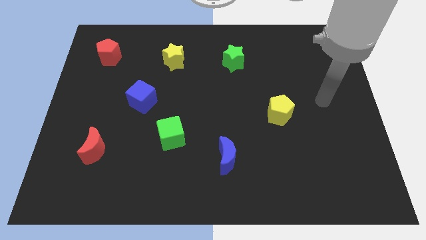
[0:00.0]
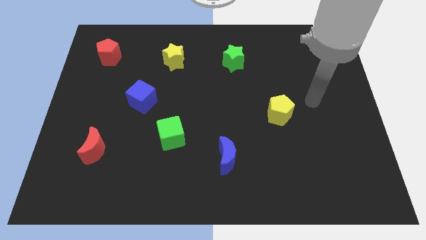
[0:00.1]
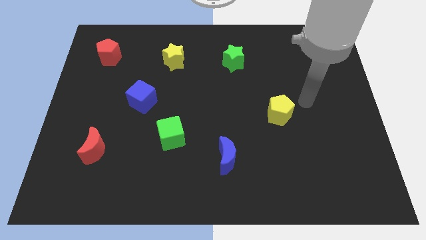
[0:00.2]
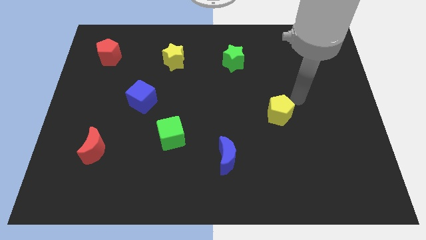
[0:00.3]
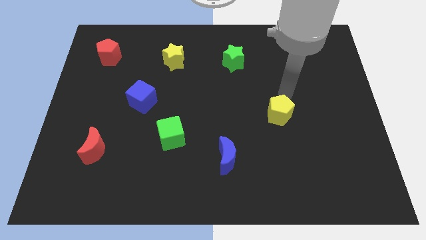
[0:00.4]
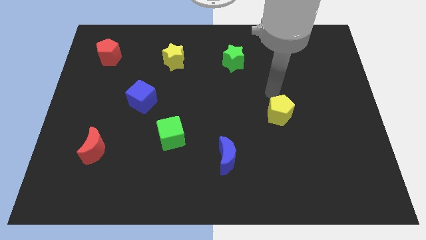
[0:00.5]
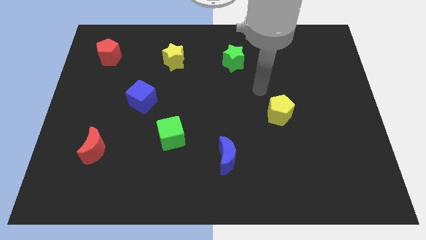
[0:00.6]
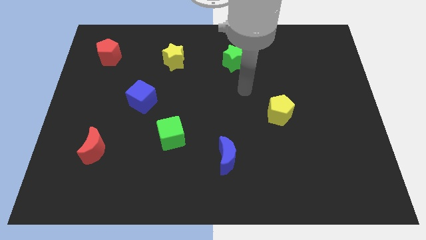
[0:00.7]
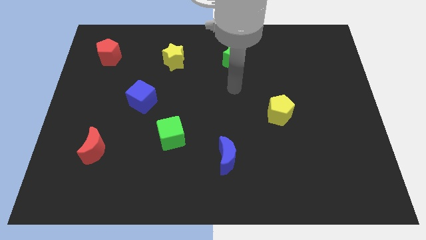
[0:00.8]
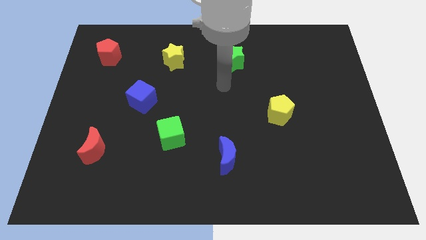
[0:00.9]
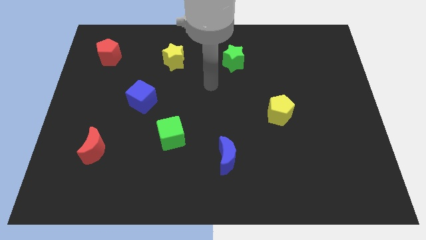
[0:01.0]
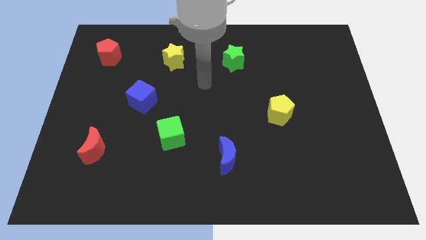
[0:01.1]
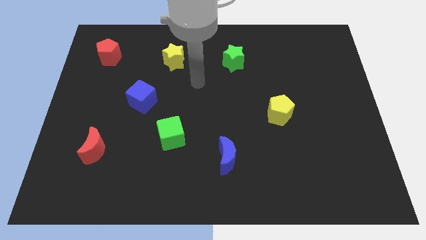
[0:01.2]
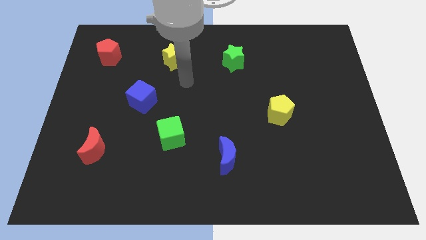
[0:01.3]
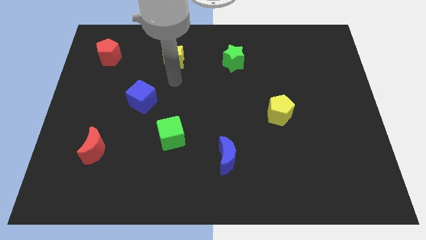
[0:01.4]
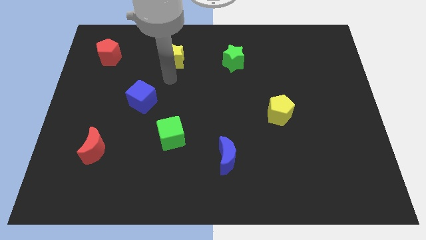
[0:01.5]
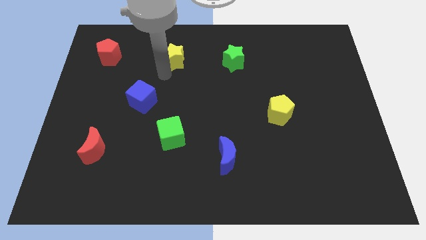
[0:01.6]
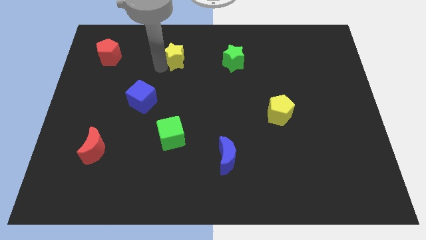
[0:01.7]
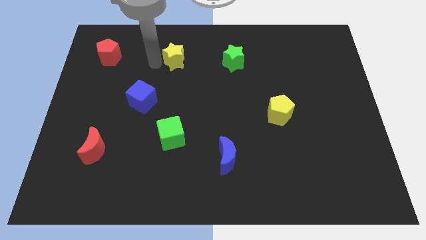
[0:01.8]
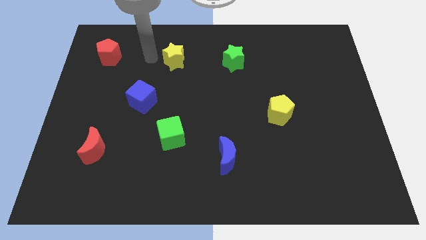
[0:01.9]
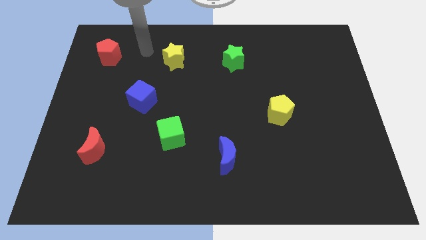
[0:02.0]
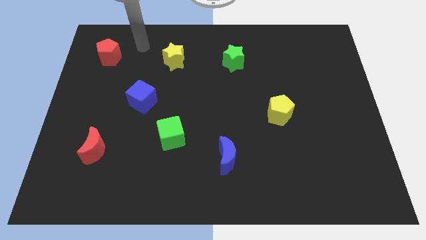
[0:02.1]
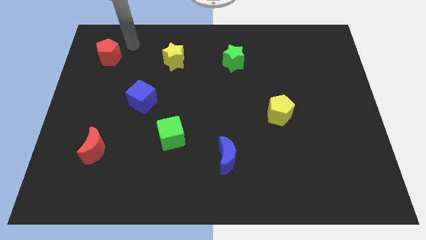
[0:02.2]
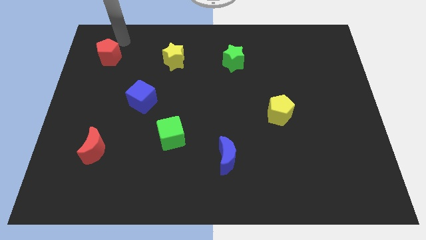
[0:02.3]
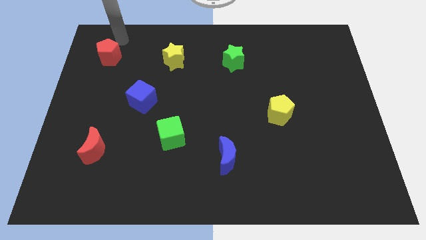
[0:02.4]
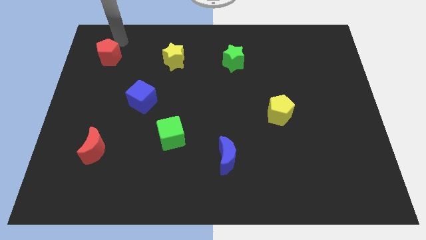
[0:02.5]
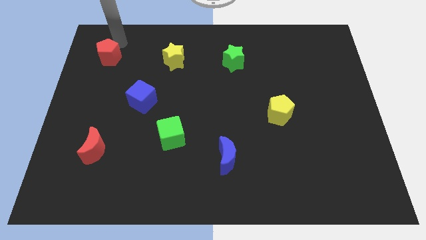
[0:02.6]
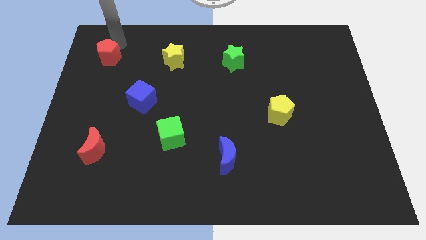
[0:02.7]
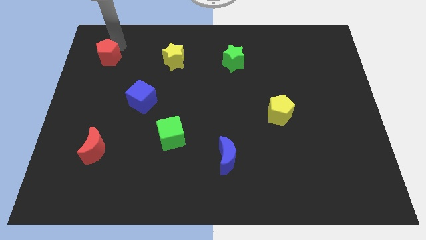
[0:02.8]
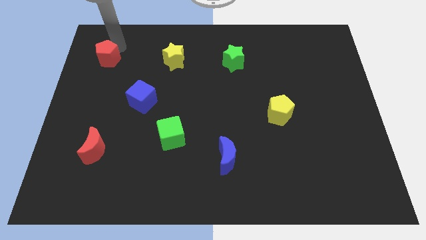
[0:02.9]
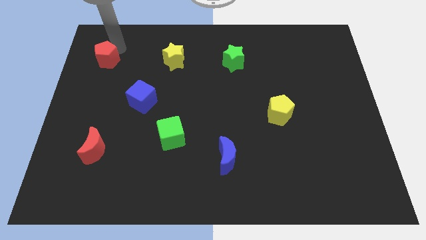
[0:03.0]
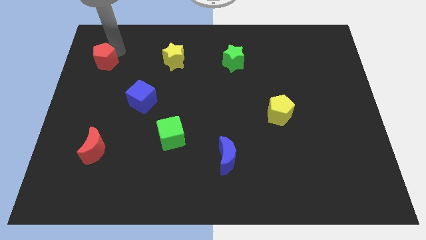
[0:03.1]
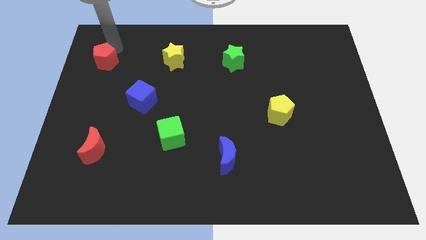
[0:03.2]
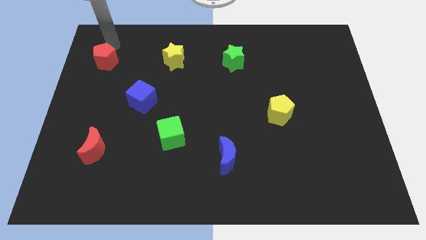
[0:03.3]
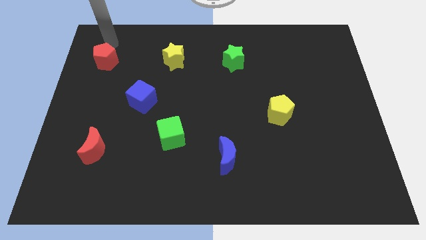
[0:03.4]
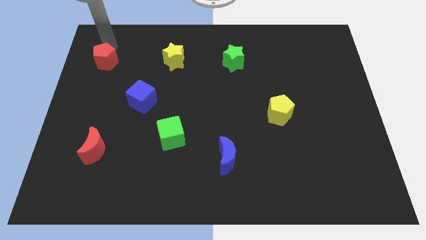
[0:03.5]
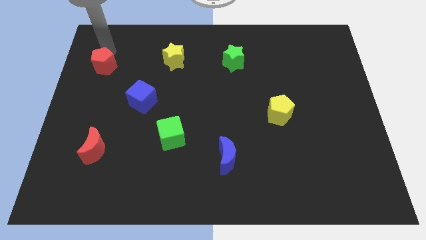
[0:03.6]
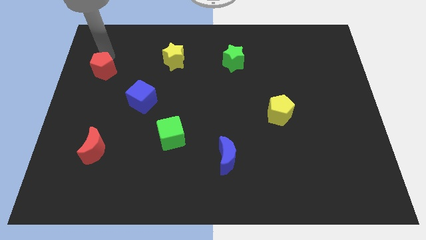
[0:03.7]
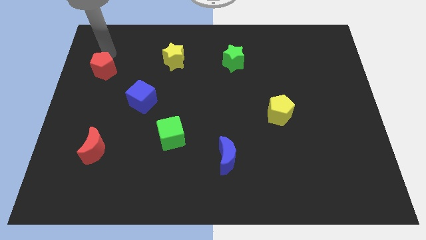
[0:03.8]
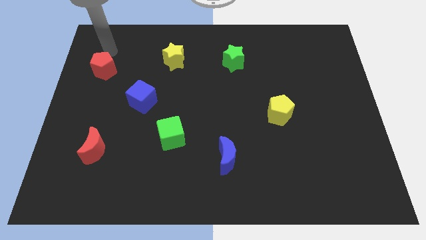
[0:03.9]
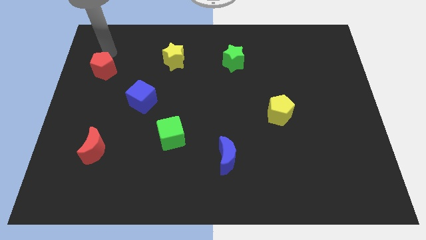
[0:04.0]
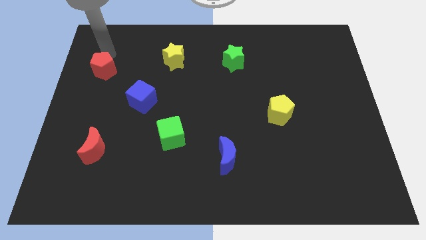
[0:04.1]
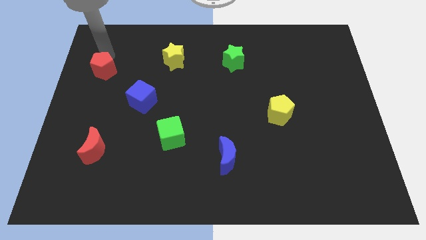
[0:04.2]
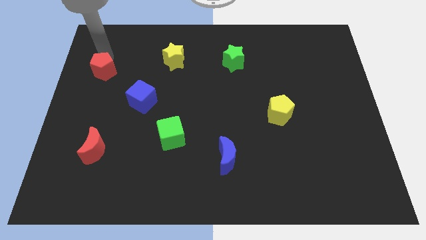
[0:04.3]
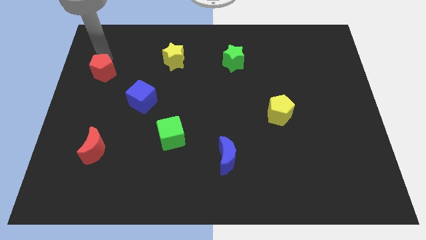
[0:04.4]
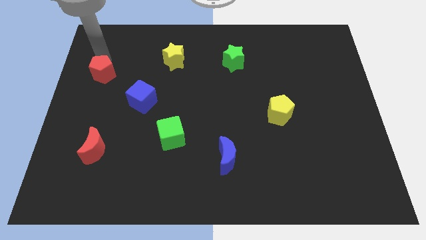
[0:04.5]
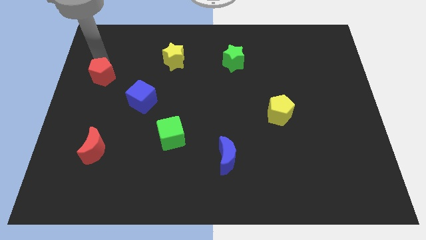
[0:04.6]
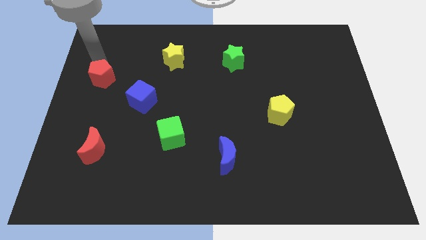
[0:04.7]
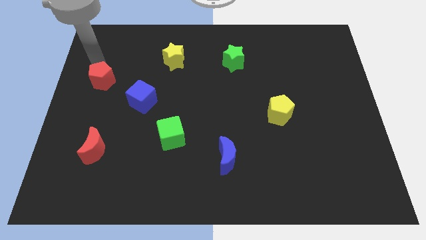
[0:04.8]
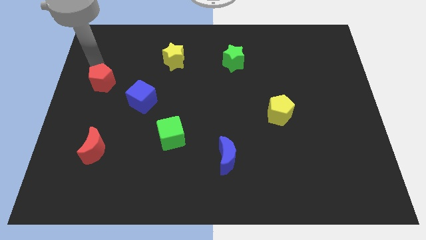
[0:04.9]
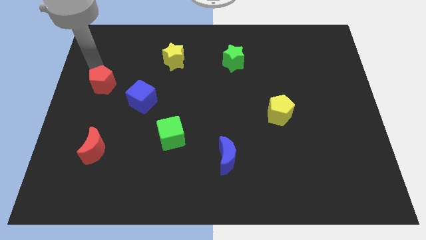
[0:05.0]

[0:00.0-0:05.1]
move the red pentagon left of the blue cube

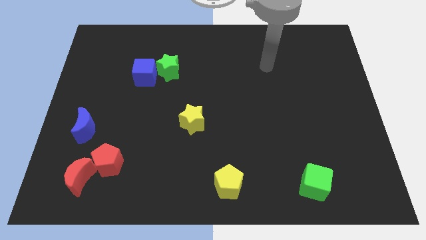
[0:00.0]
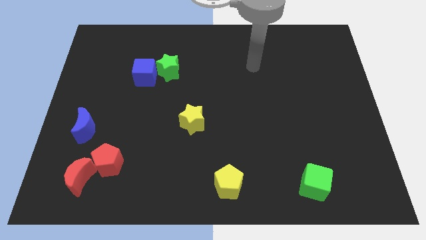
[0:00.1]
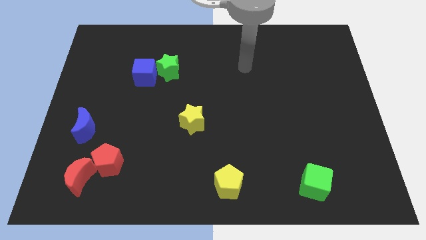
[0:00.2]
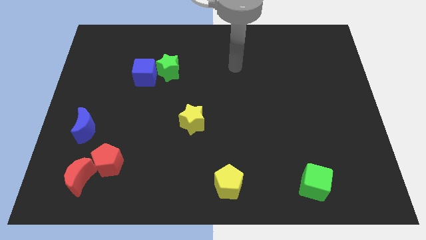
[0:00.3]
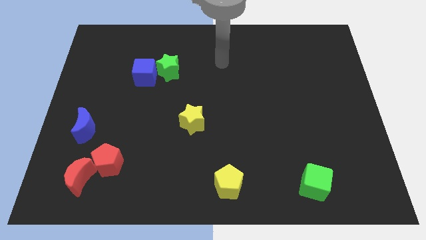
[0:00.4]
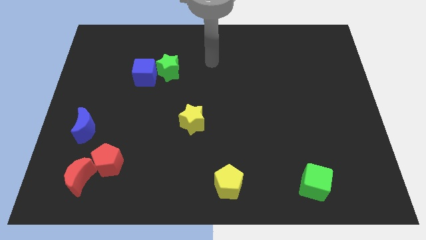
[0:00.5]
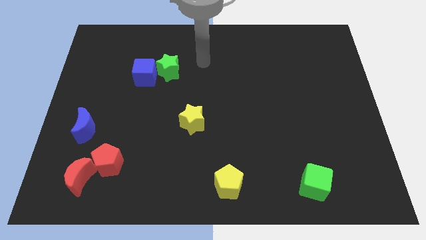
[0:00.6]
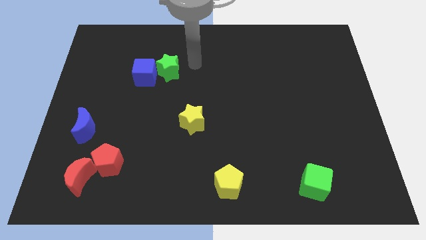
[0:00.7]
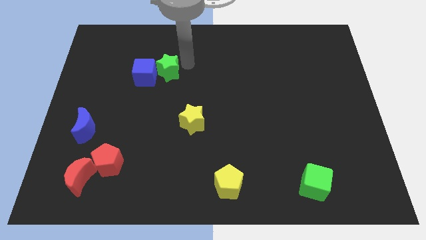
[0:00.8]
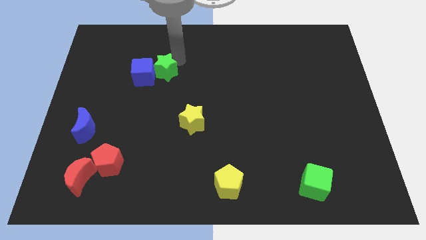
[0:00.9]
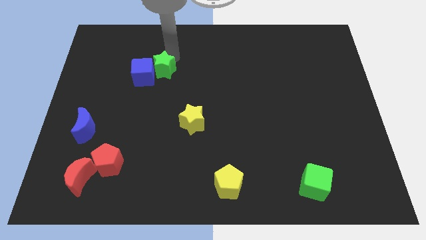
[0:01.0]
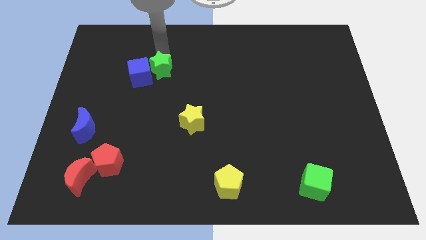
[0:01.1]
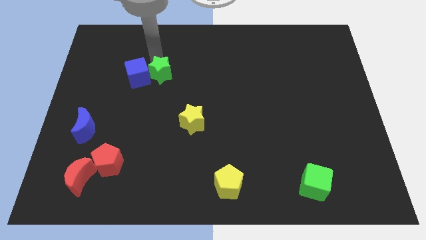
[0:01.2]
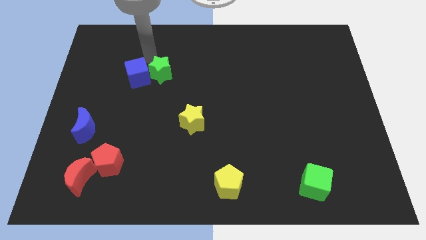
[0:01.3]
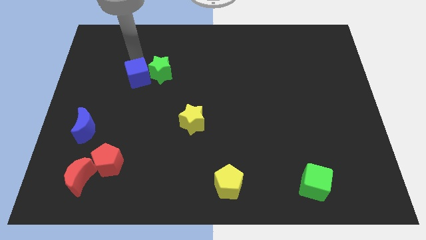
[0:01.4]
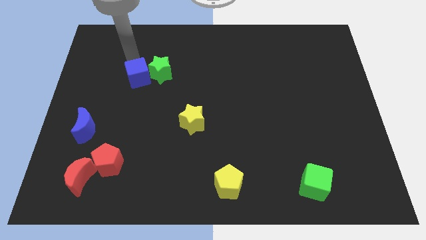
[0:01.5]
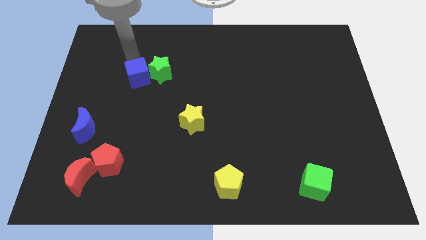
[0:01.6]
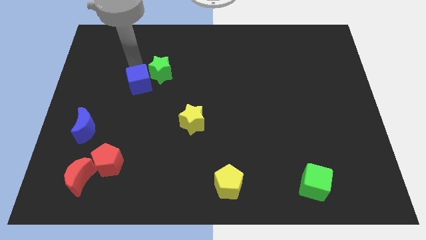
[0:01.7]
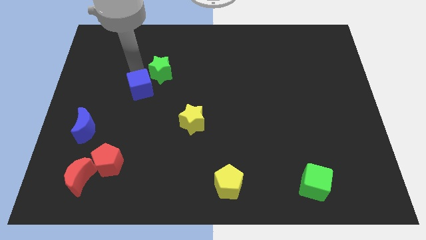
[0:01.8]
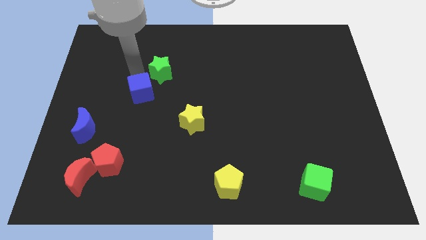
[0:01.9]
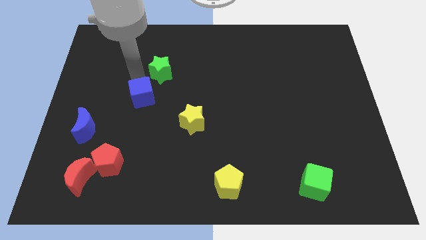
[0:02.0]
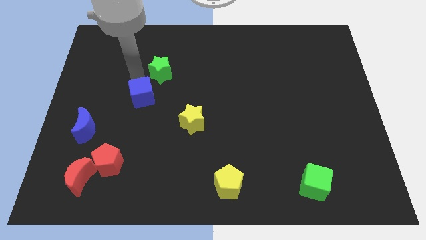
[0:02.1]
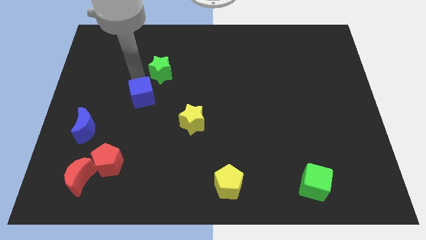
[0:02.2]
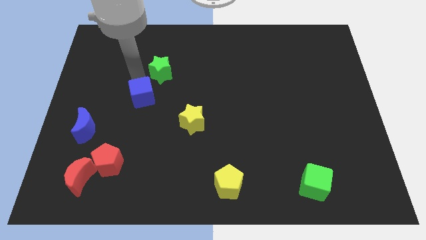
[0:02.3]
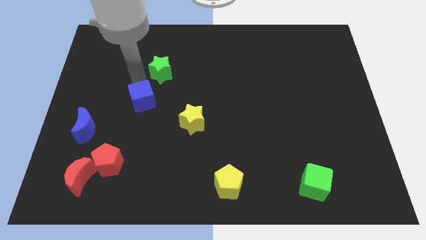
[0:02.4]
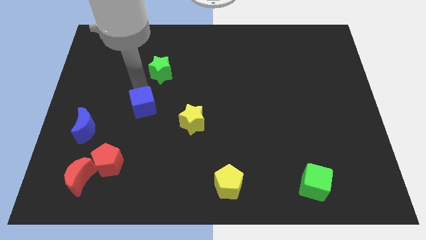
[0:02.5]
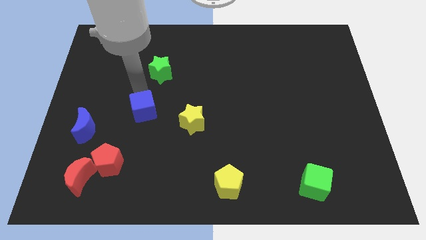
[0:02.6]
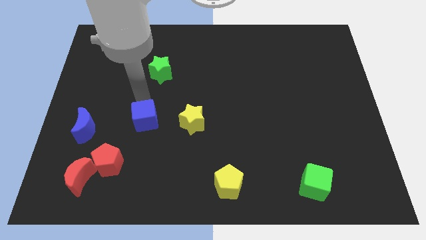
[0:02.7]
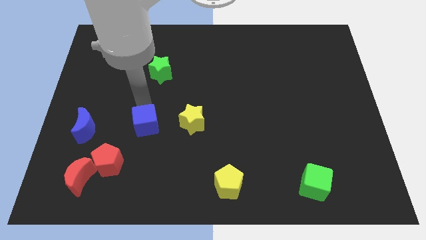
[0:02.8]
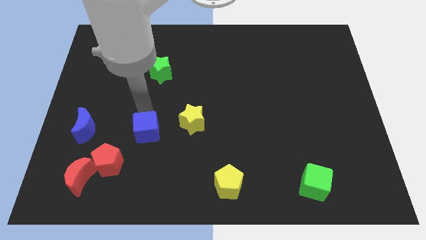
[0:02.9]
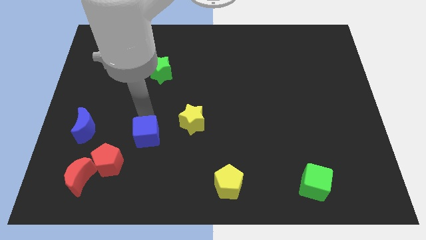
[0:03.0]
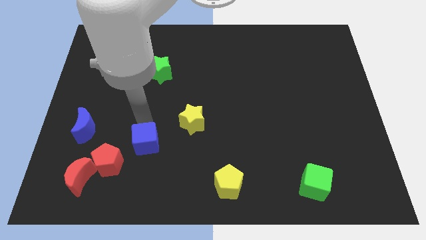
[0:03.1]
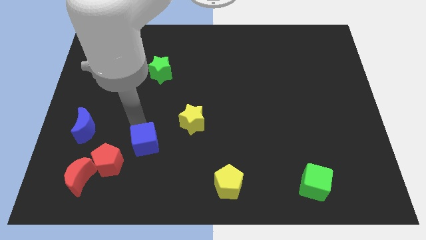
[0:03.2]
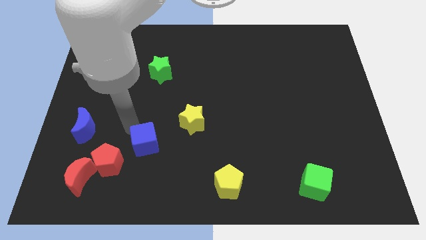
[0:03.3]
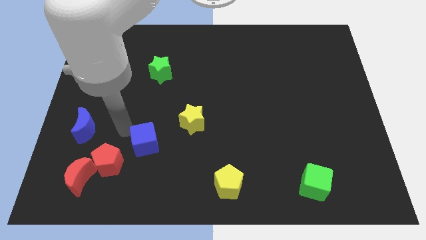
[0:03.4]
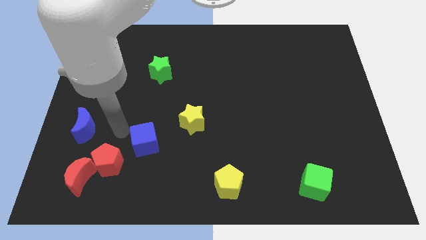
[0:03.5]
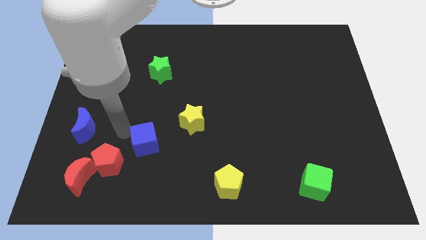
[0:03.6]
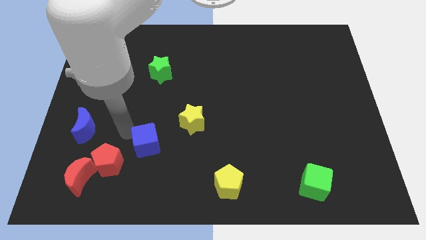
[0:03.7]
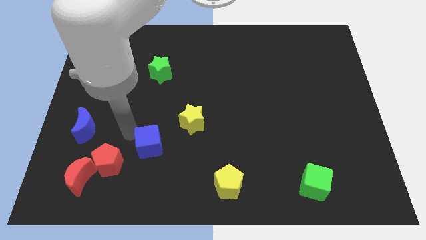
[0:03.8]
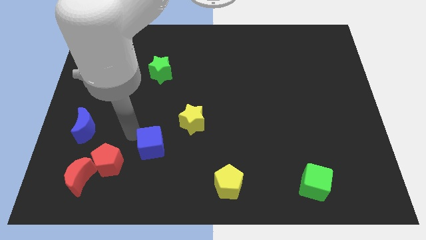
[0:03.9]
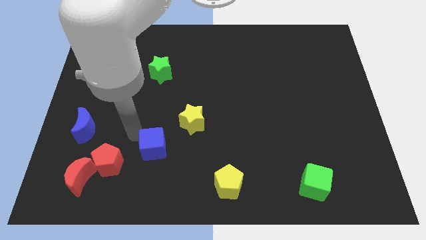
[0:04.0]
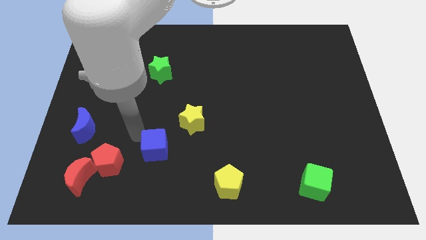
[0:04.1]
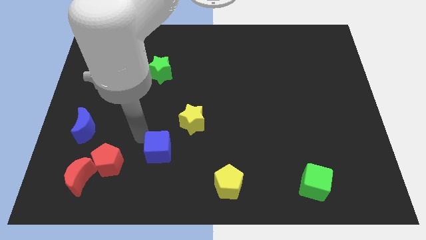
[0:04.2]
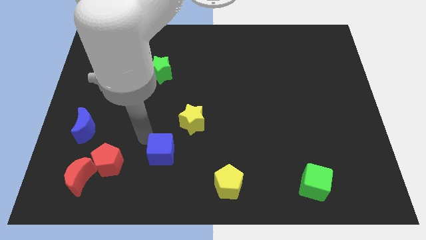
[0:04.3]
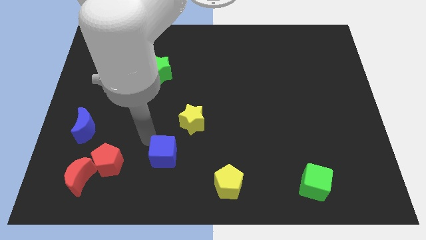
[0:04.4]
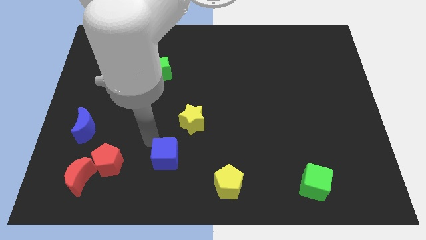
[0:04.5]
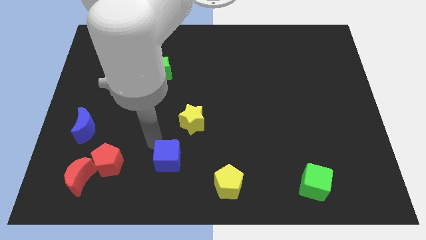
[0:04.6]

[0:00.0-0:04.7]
slide the blue cube below the yellow star
